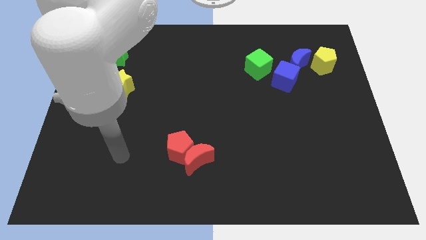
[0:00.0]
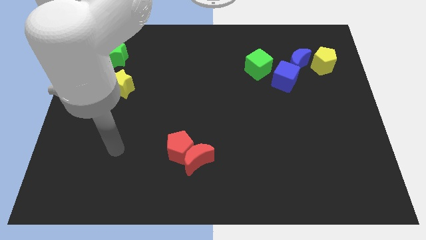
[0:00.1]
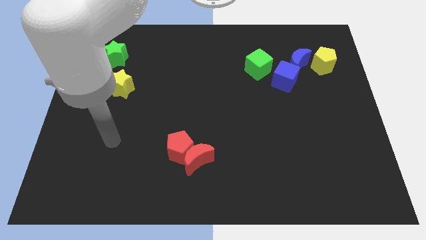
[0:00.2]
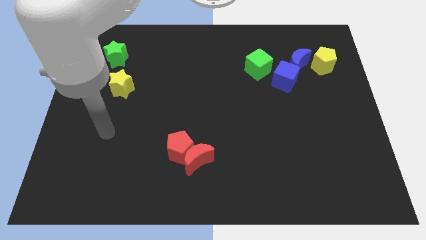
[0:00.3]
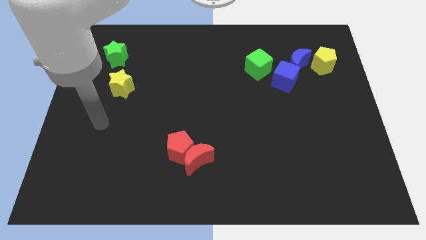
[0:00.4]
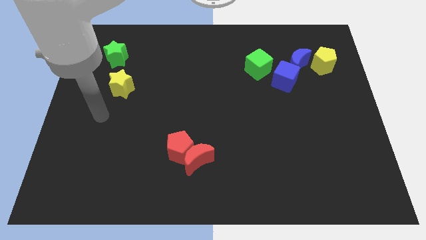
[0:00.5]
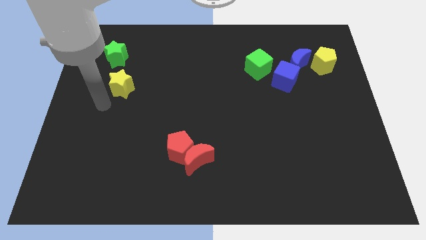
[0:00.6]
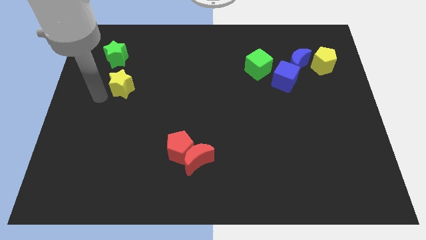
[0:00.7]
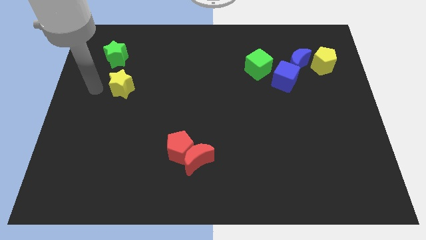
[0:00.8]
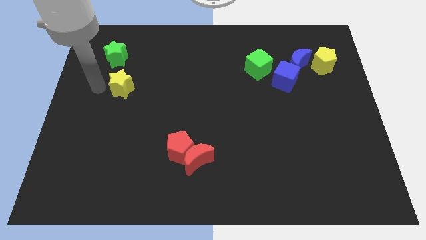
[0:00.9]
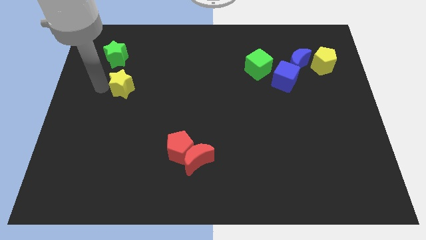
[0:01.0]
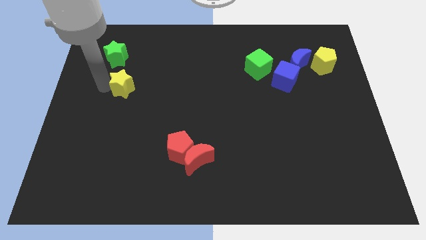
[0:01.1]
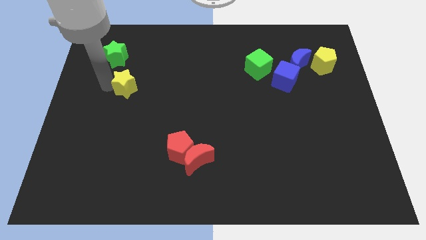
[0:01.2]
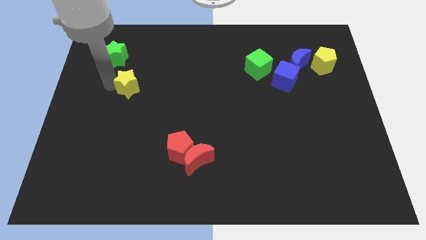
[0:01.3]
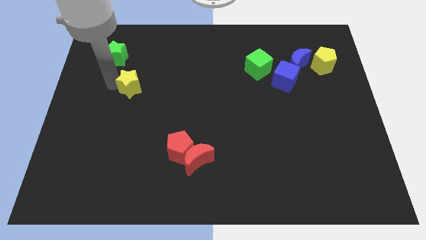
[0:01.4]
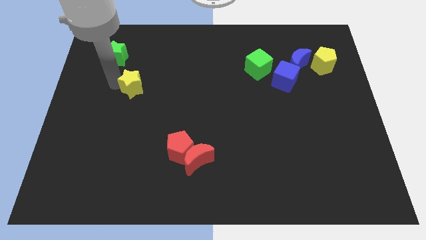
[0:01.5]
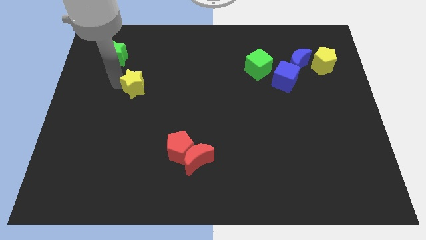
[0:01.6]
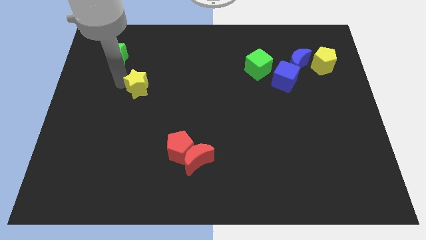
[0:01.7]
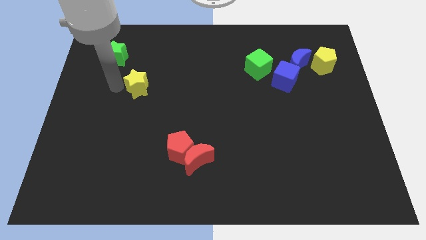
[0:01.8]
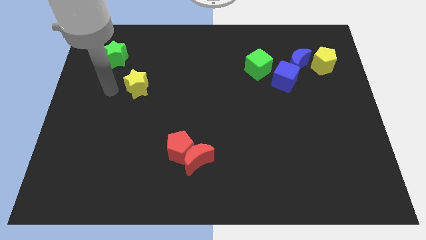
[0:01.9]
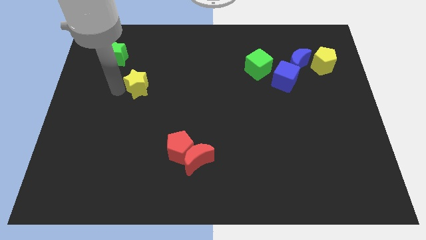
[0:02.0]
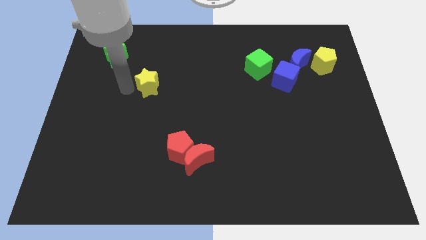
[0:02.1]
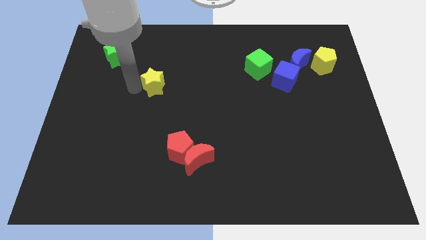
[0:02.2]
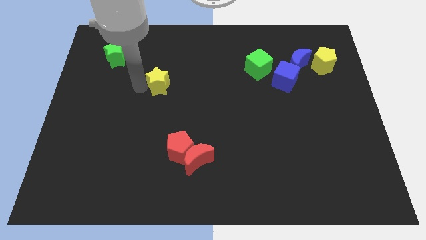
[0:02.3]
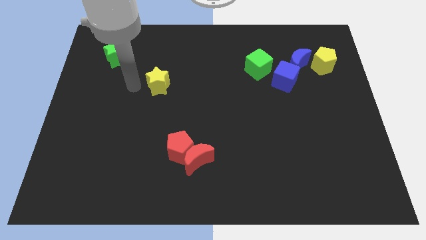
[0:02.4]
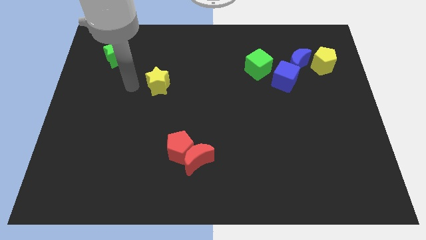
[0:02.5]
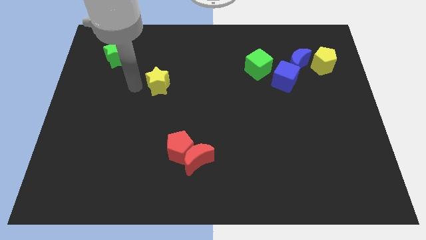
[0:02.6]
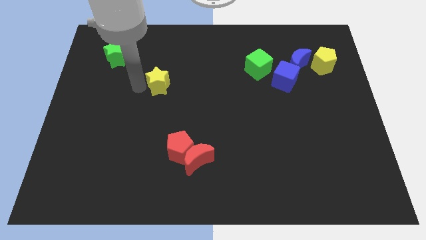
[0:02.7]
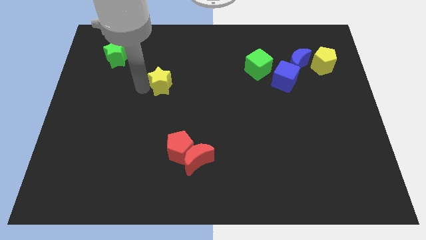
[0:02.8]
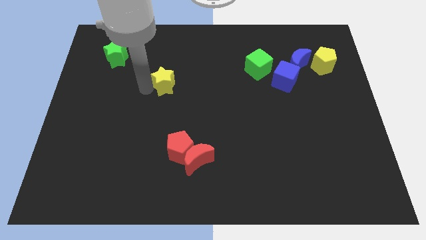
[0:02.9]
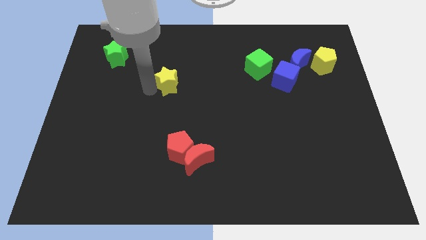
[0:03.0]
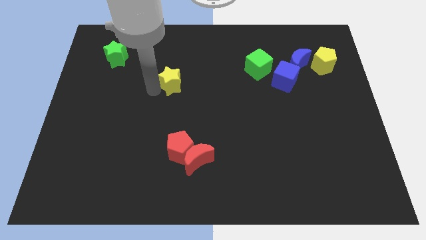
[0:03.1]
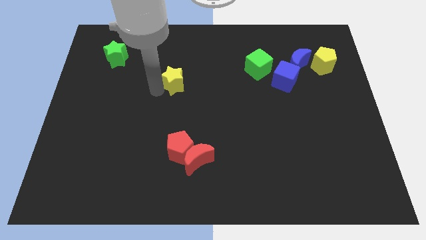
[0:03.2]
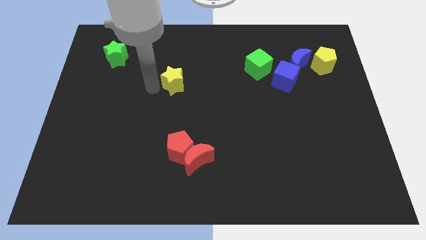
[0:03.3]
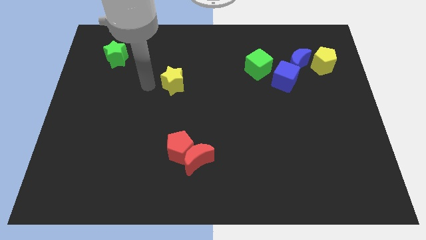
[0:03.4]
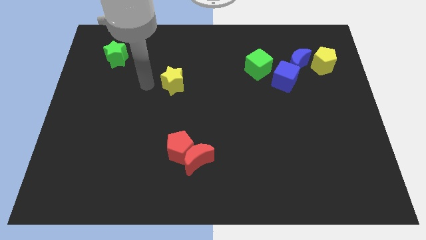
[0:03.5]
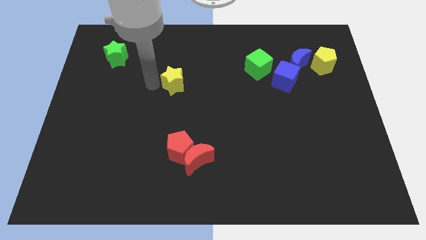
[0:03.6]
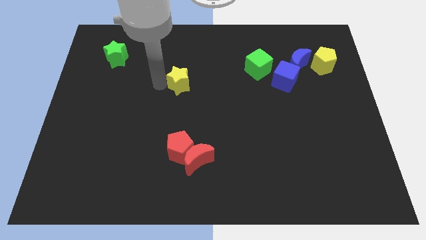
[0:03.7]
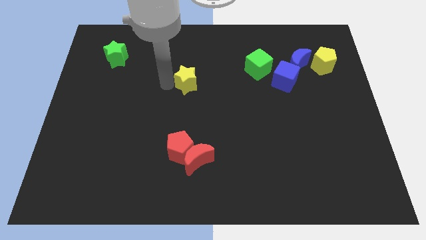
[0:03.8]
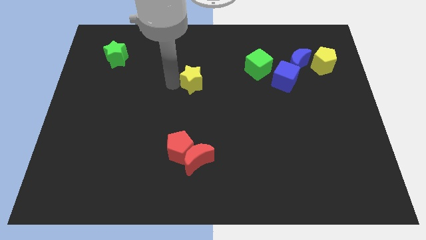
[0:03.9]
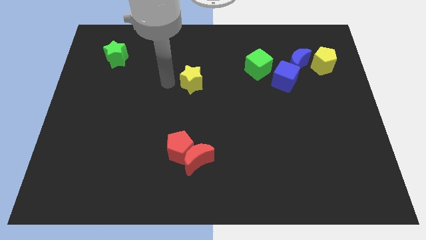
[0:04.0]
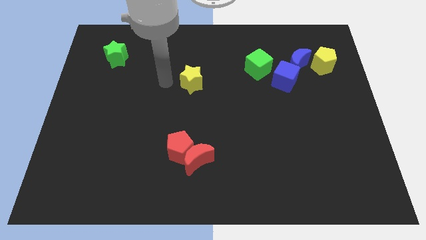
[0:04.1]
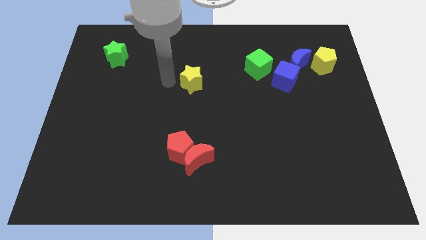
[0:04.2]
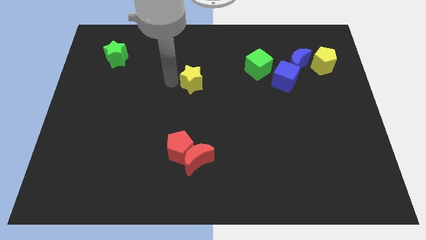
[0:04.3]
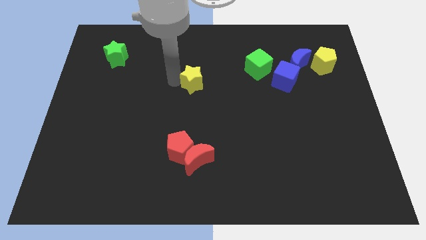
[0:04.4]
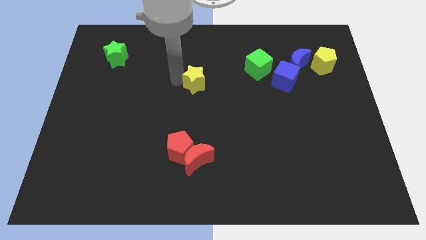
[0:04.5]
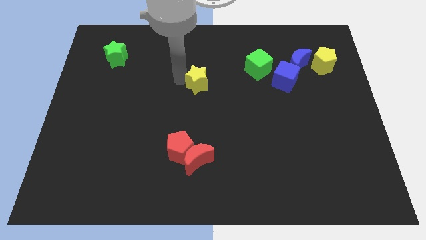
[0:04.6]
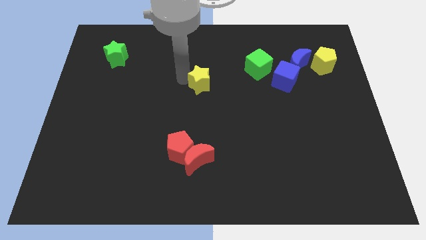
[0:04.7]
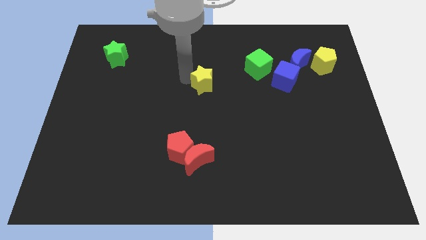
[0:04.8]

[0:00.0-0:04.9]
push the yellow star right

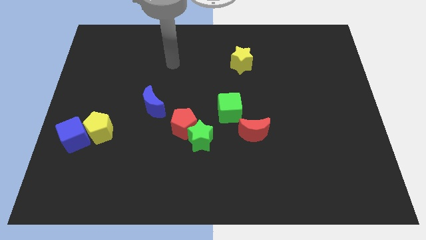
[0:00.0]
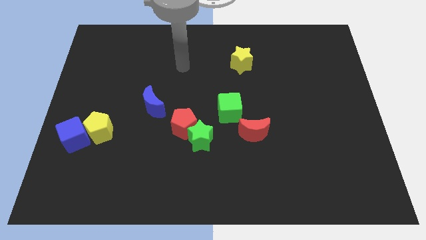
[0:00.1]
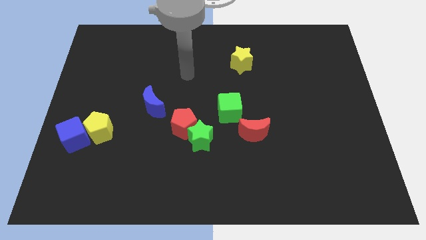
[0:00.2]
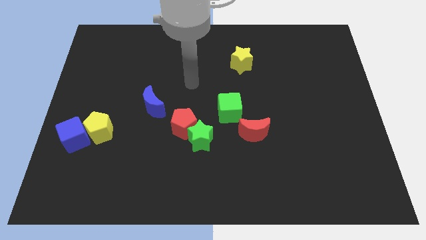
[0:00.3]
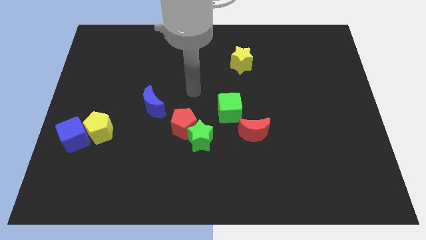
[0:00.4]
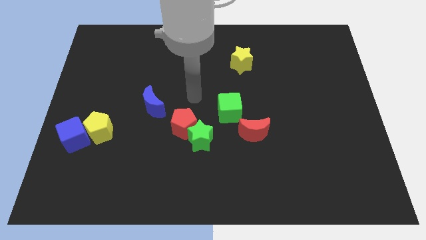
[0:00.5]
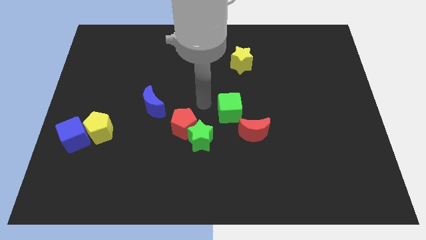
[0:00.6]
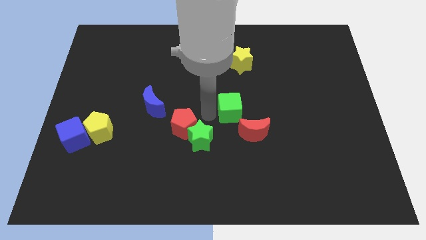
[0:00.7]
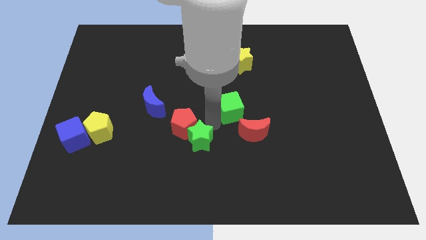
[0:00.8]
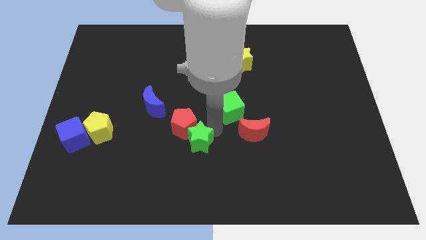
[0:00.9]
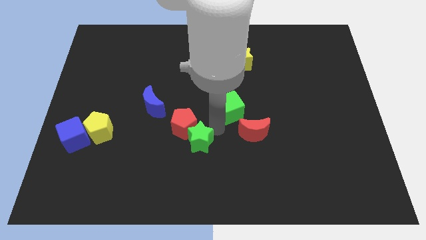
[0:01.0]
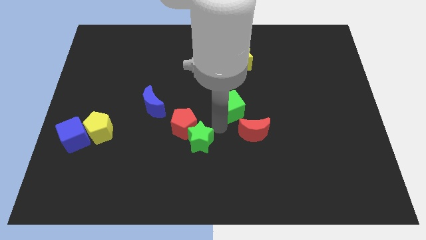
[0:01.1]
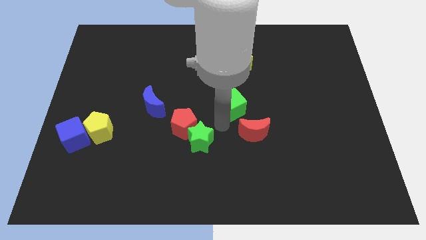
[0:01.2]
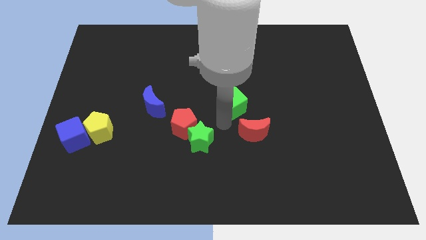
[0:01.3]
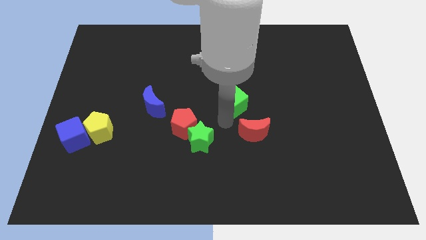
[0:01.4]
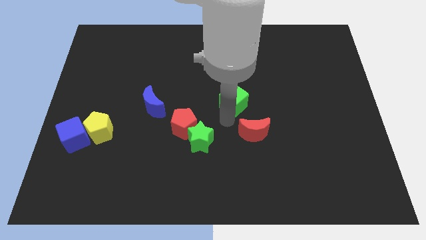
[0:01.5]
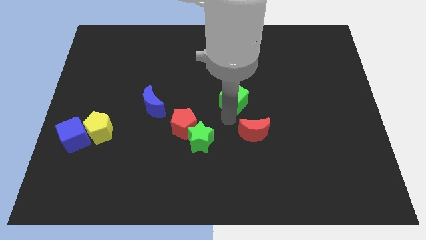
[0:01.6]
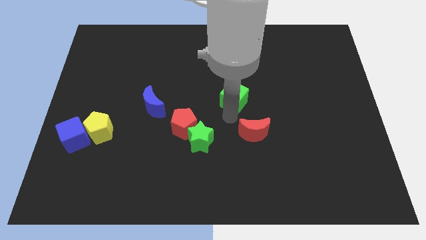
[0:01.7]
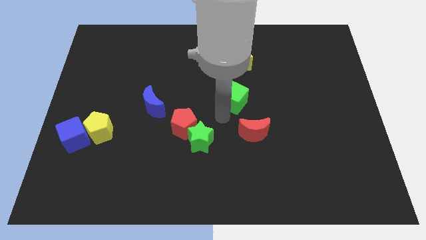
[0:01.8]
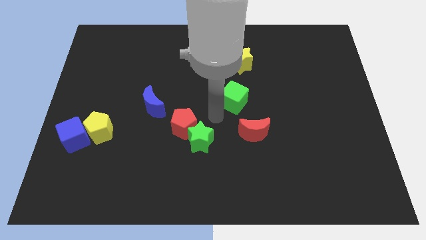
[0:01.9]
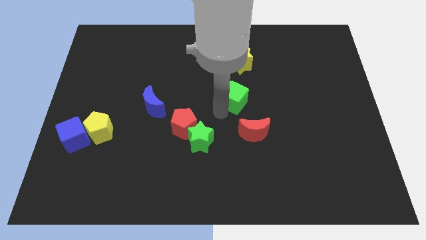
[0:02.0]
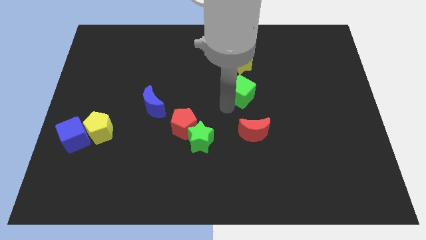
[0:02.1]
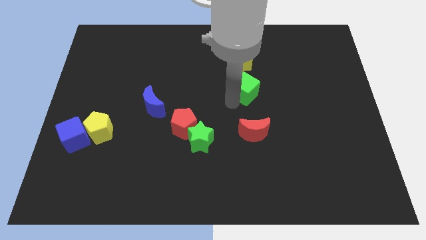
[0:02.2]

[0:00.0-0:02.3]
slightly move the green cube diagonally up and right

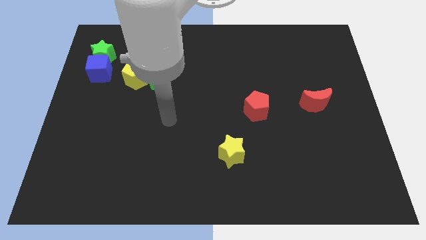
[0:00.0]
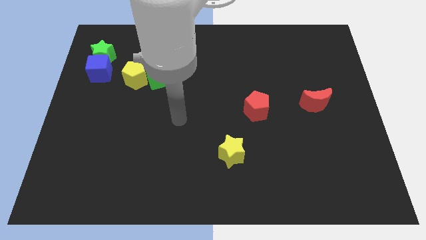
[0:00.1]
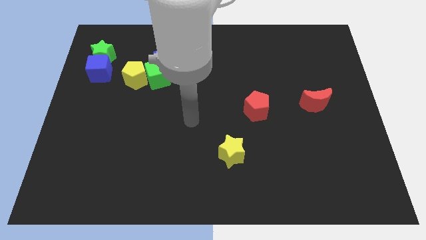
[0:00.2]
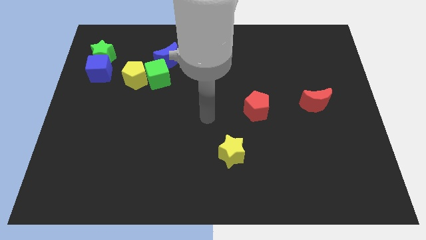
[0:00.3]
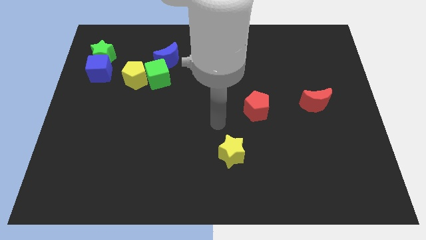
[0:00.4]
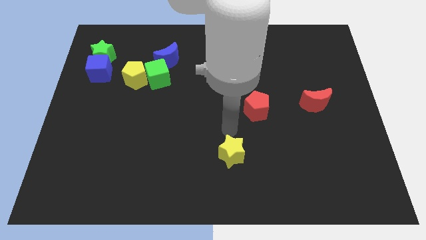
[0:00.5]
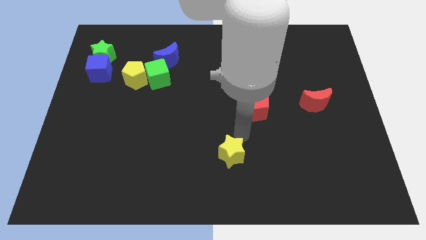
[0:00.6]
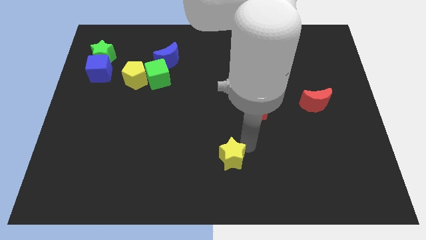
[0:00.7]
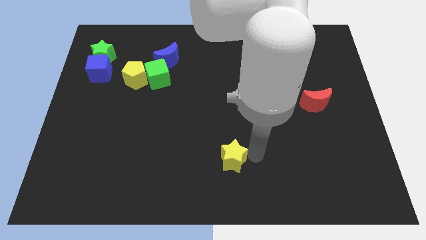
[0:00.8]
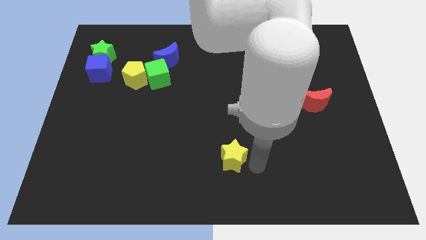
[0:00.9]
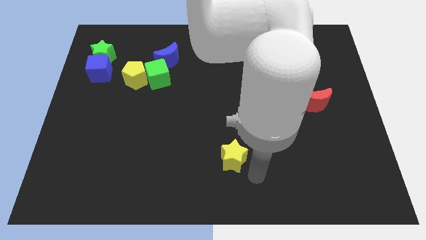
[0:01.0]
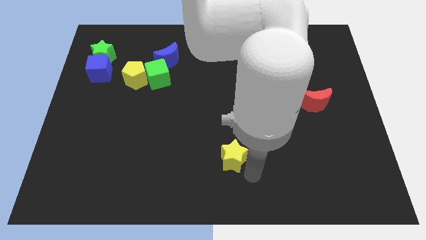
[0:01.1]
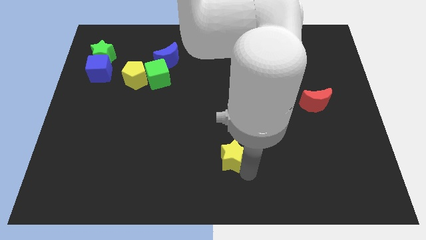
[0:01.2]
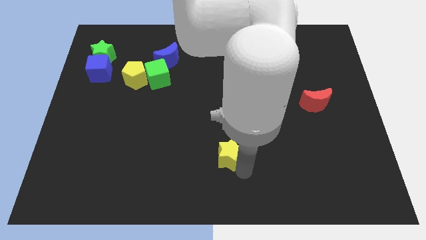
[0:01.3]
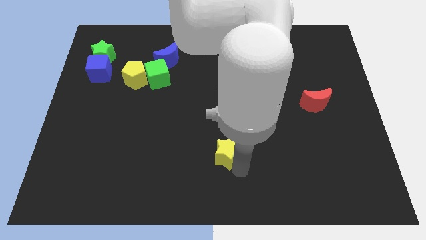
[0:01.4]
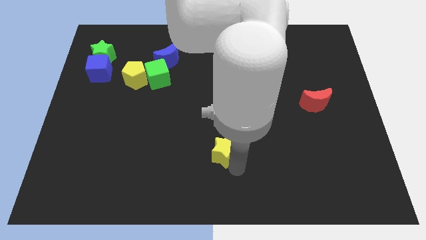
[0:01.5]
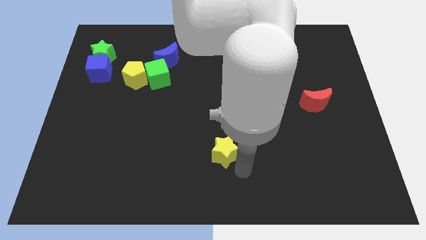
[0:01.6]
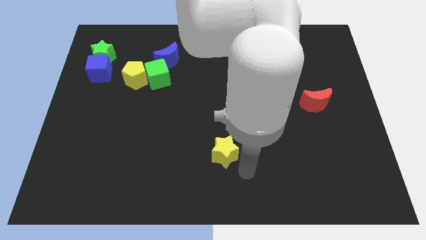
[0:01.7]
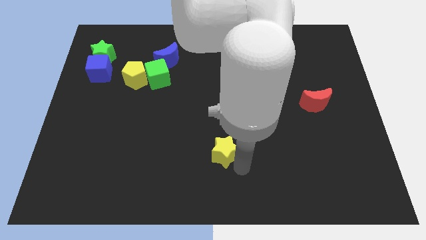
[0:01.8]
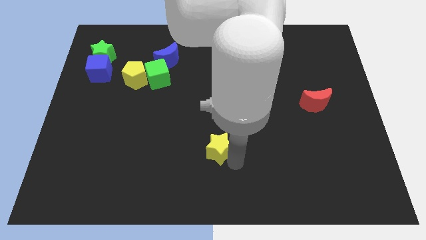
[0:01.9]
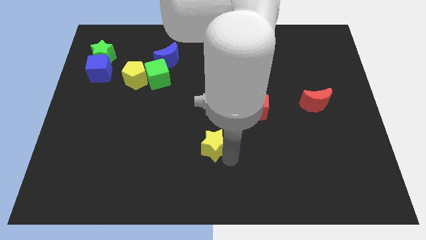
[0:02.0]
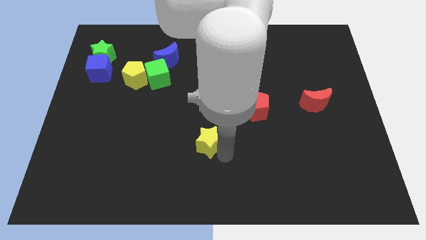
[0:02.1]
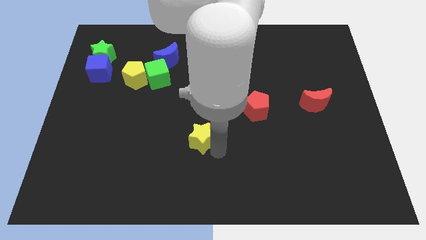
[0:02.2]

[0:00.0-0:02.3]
slide the yellow star diagonally up and left a little bit
